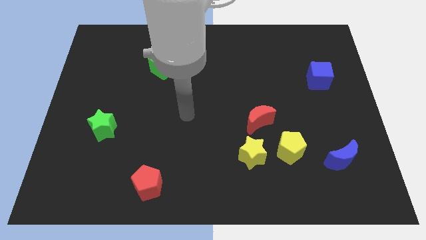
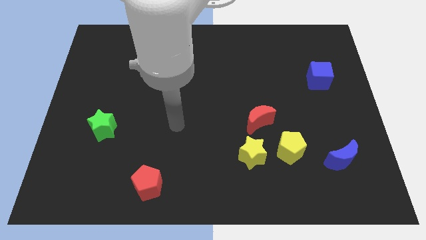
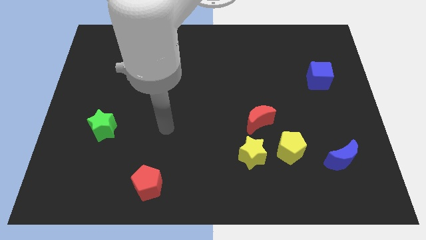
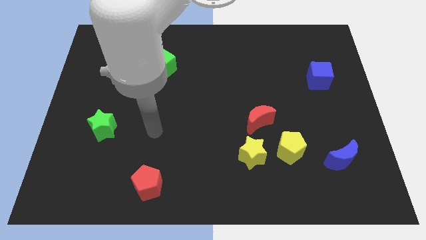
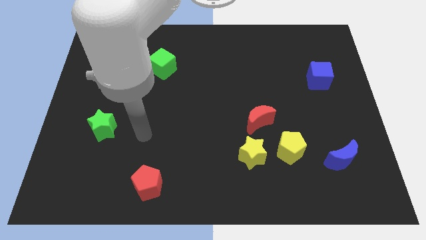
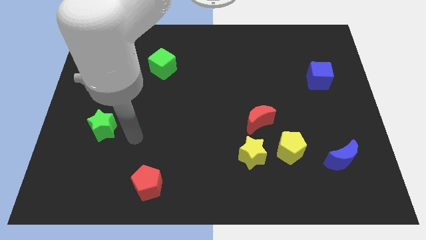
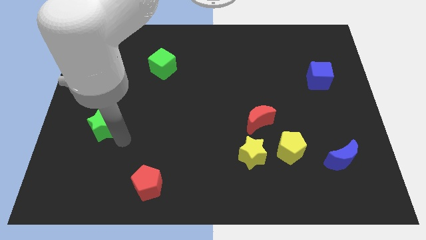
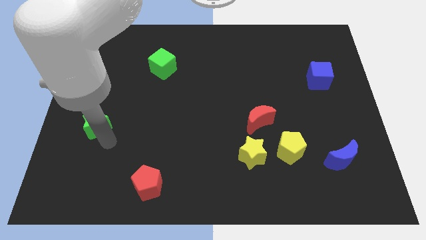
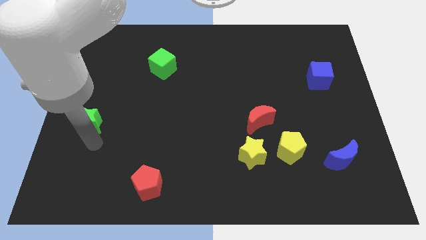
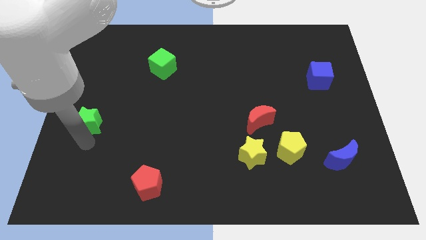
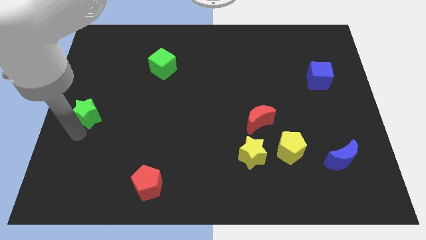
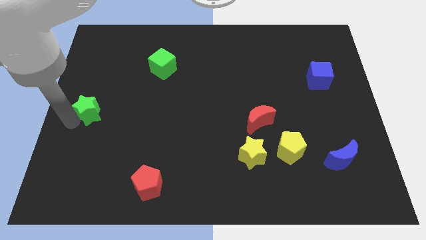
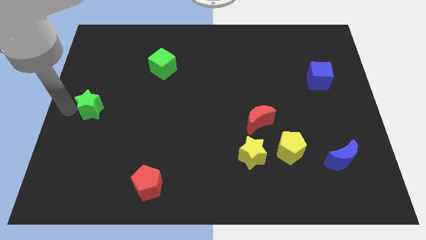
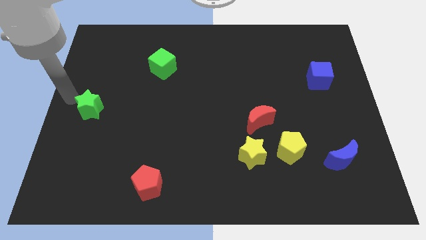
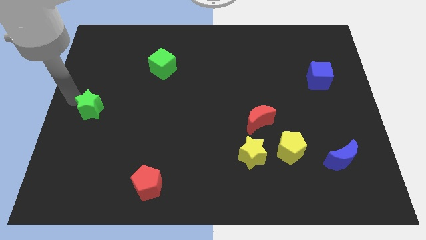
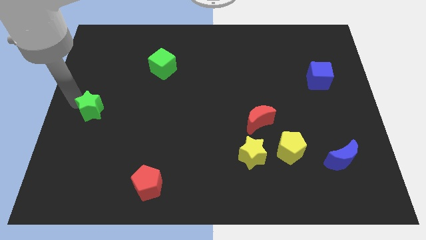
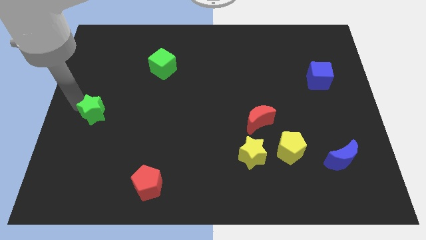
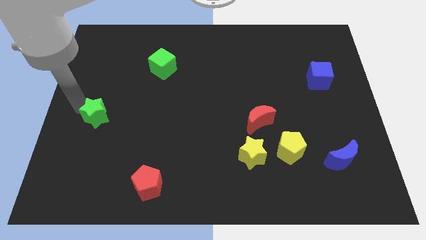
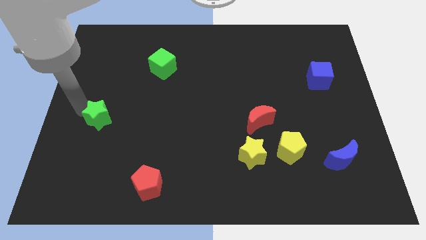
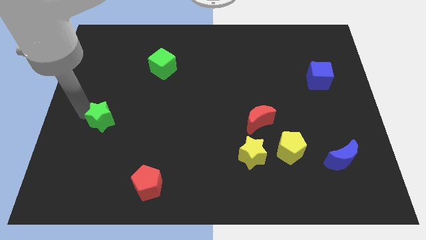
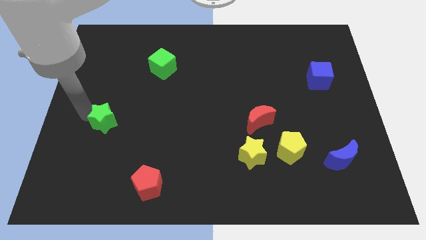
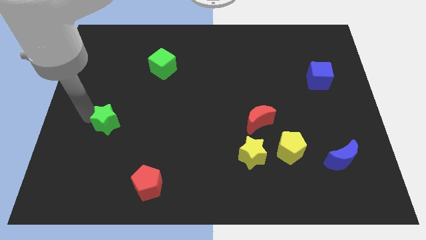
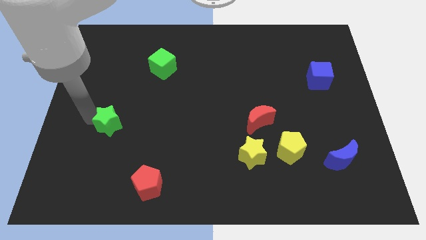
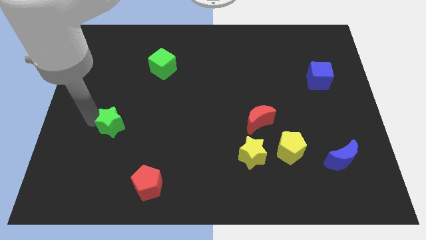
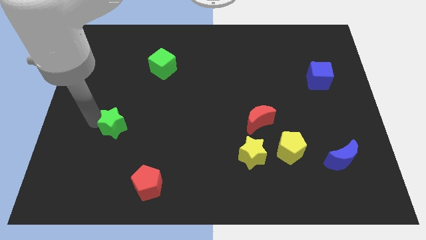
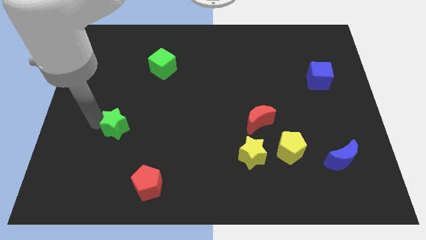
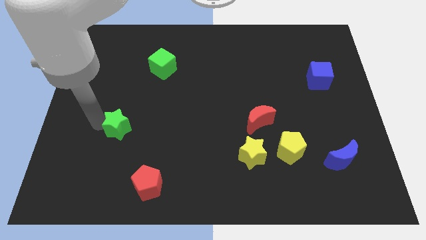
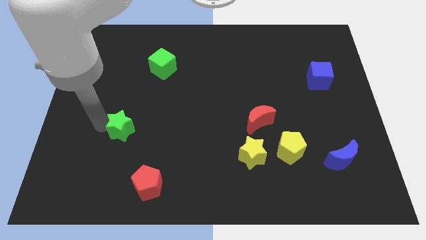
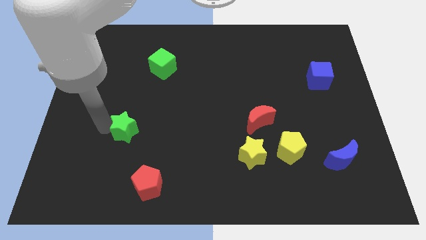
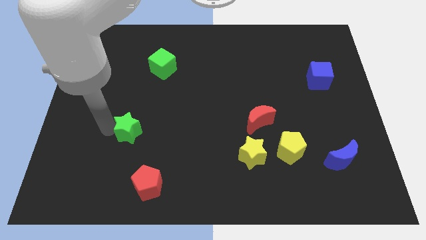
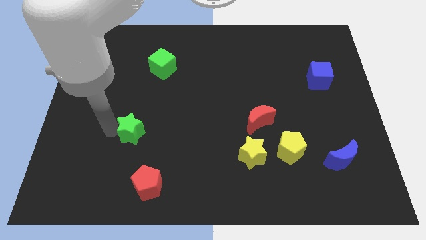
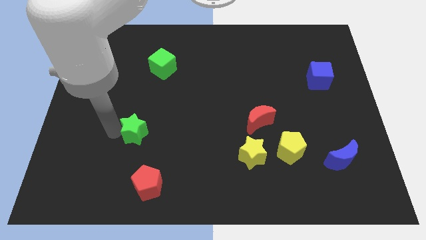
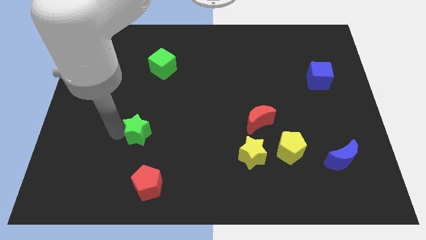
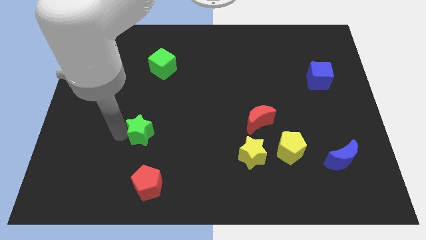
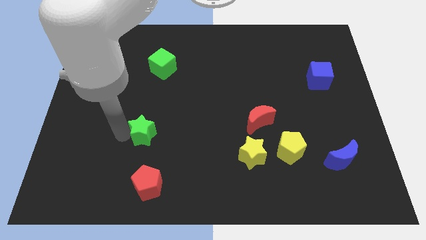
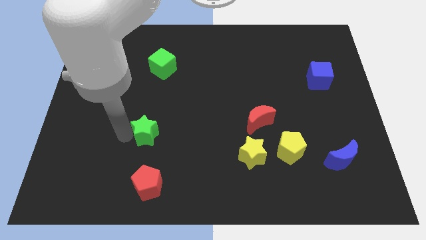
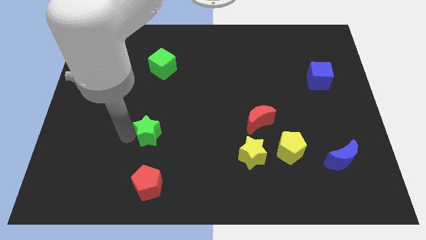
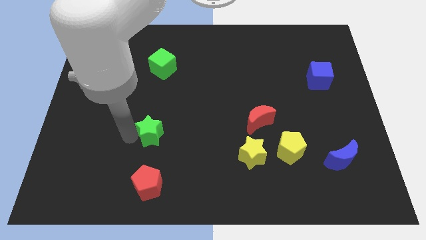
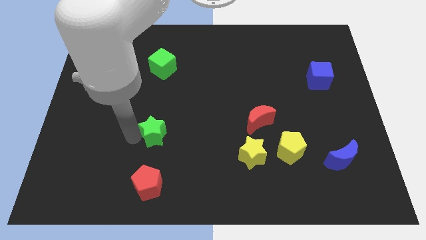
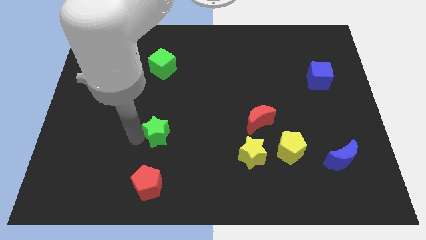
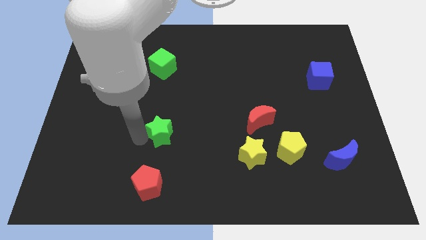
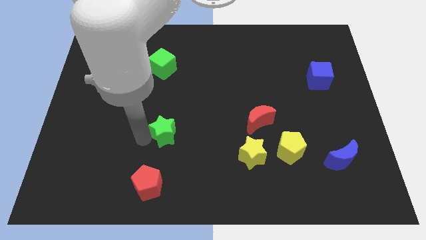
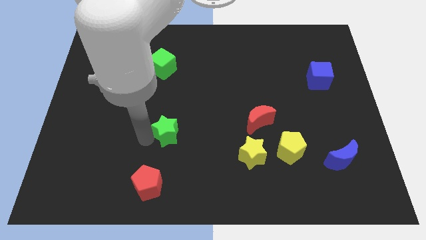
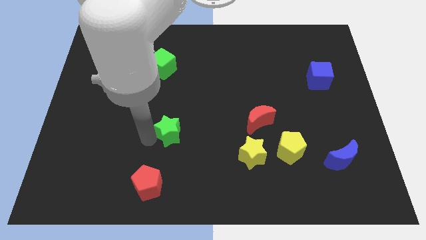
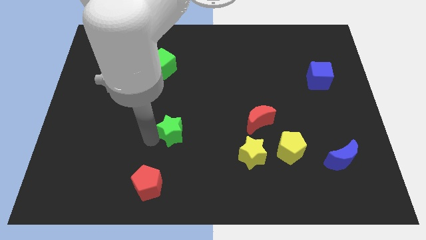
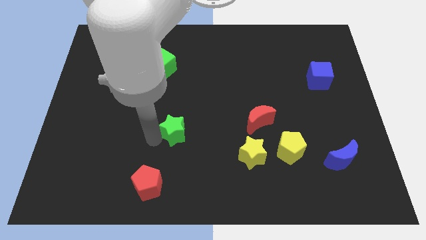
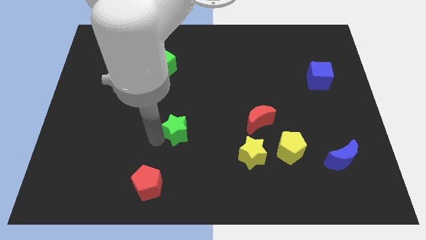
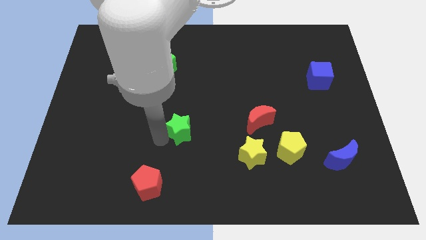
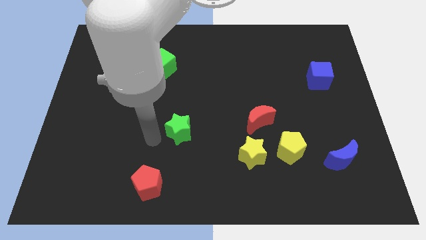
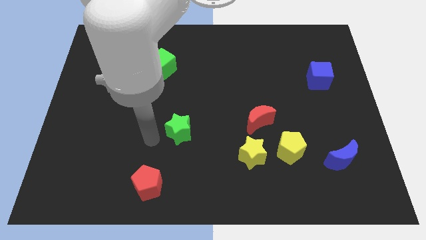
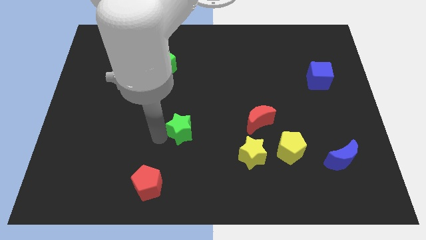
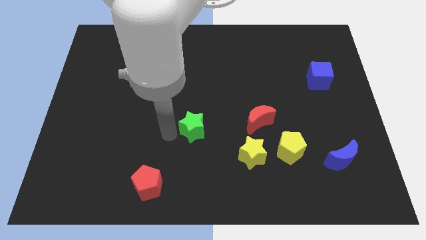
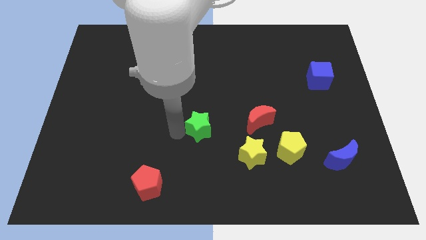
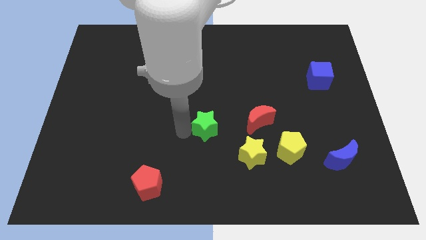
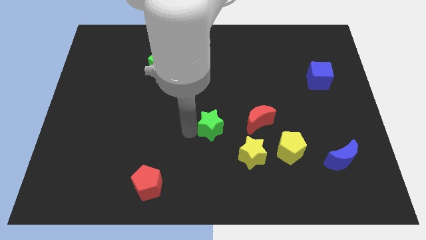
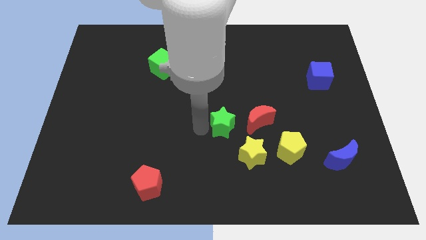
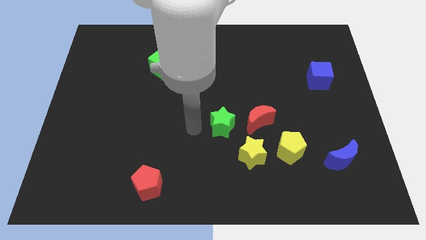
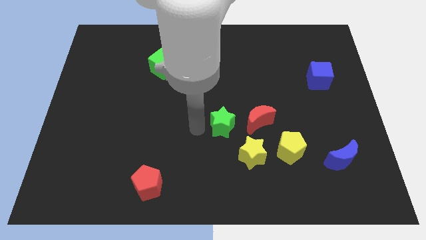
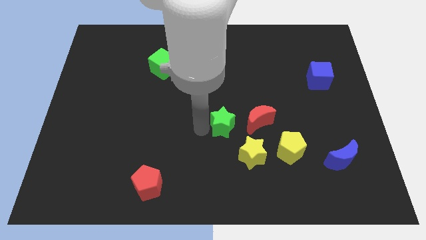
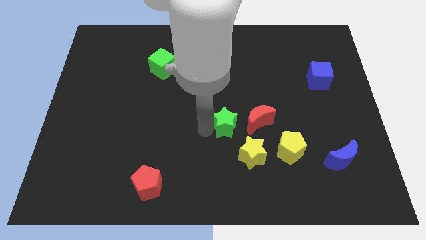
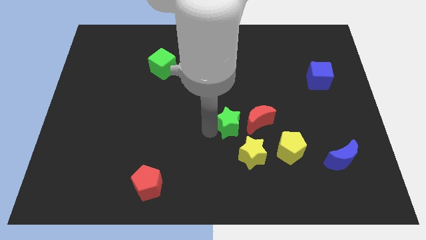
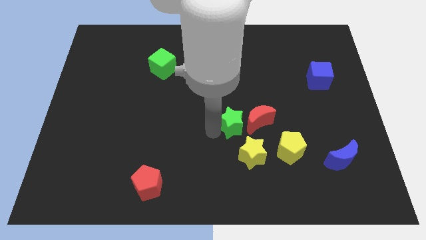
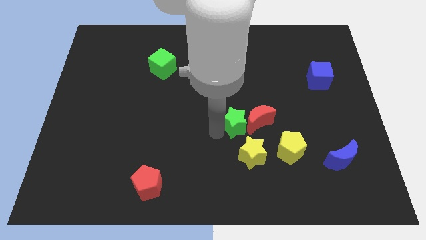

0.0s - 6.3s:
push the green star next to the red moon

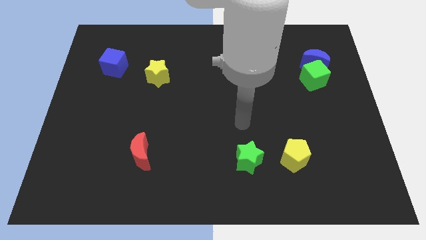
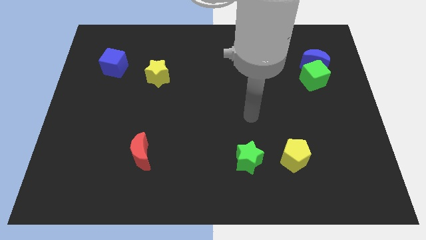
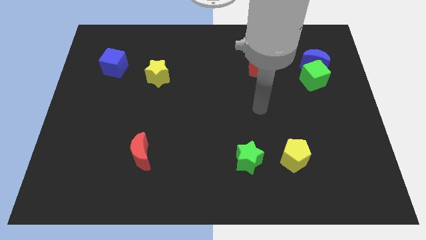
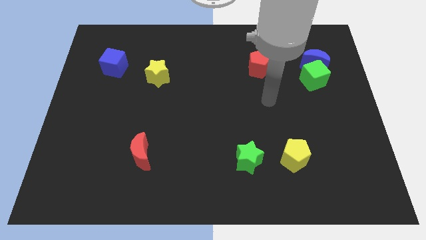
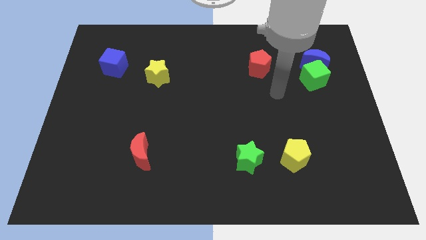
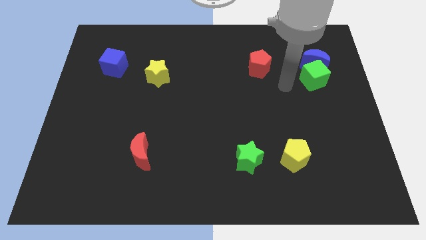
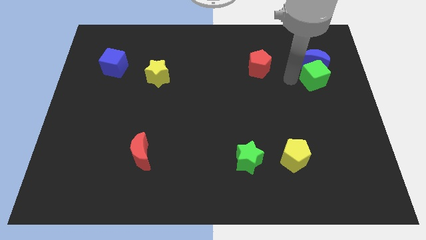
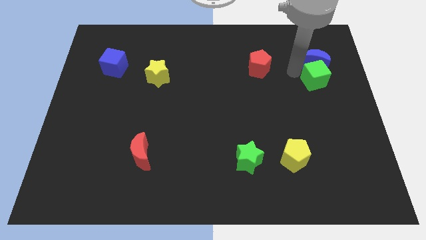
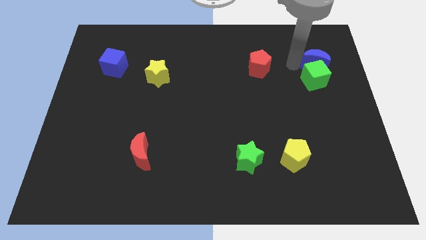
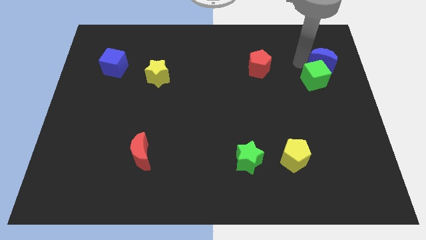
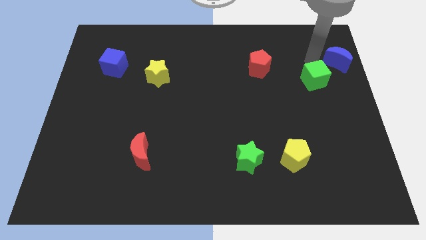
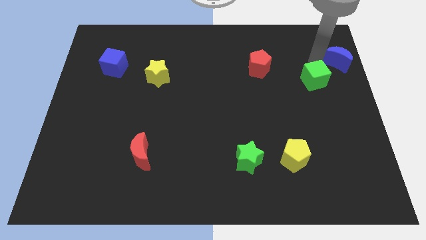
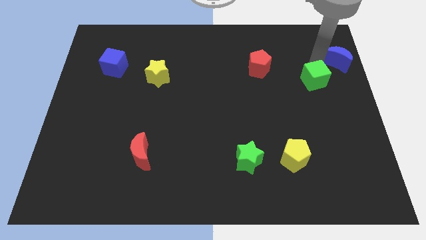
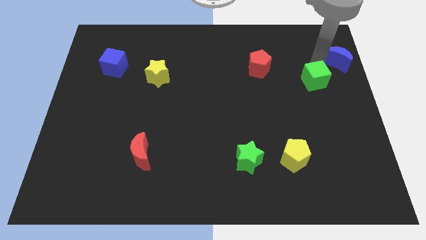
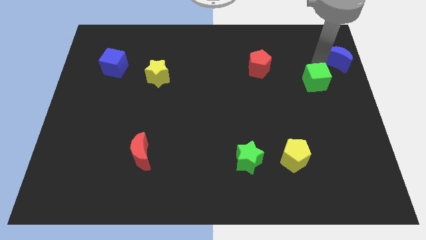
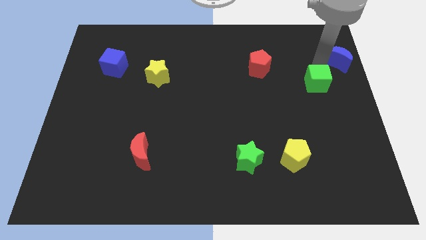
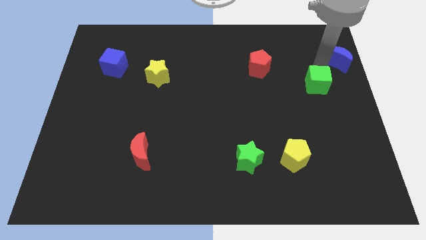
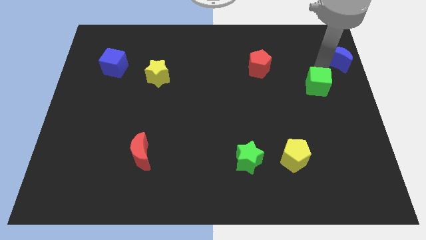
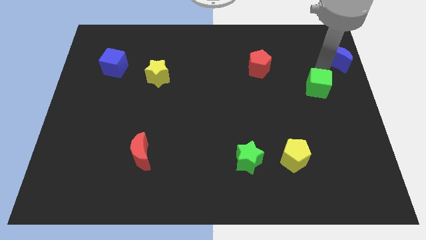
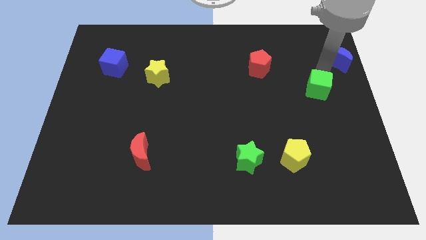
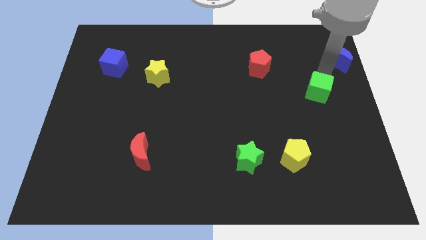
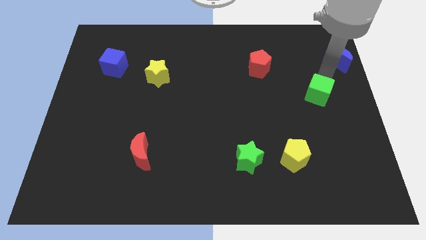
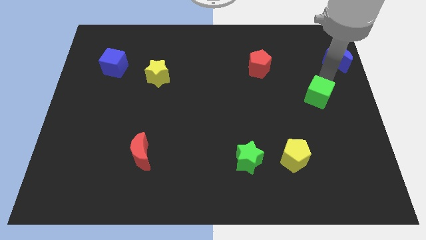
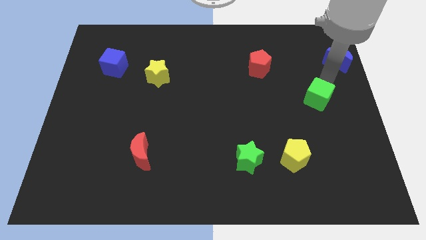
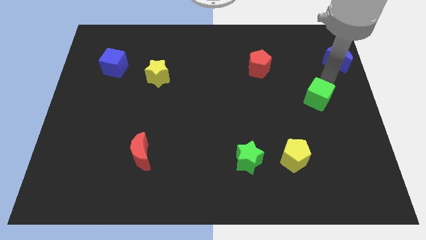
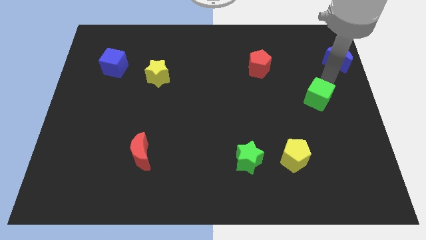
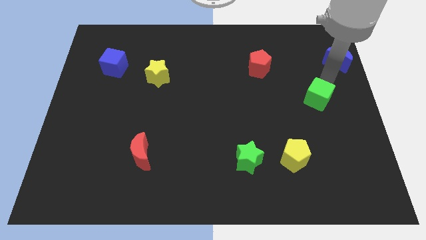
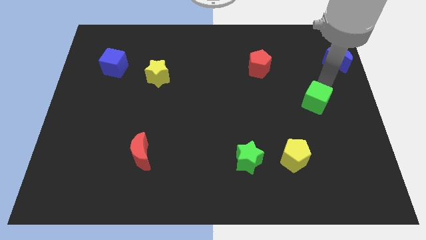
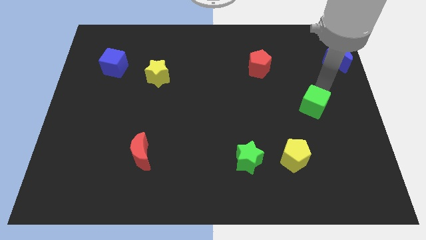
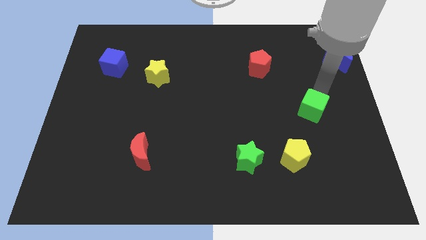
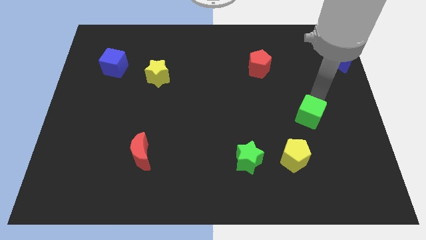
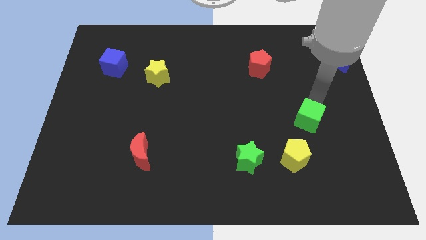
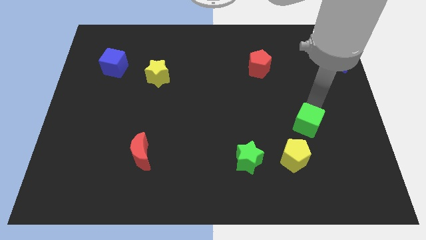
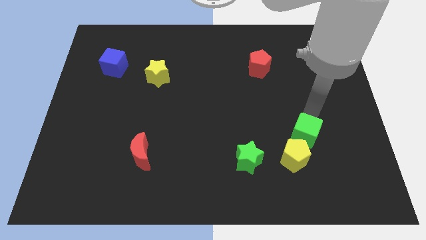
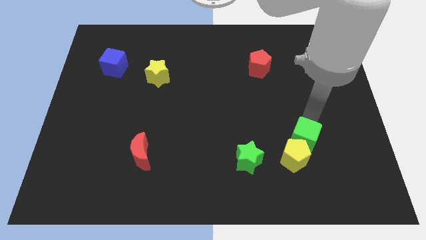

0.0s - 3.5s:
slide the green cube next to the yellow pentagon
